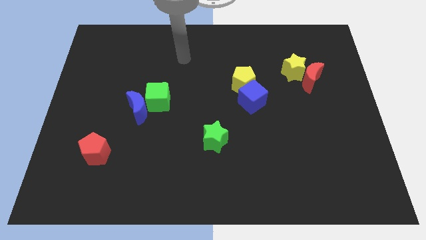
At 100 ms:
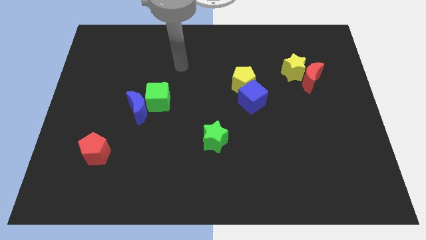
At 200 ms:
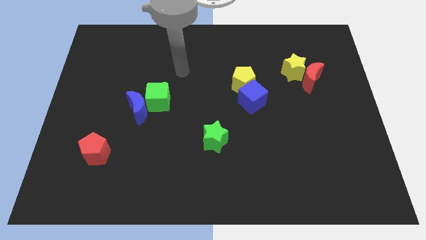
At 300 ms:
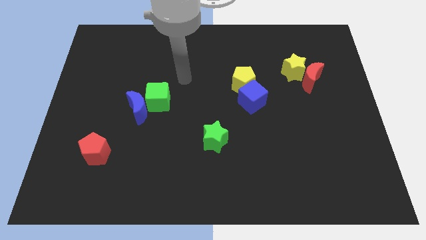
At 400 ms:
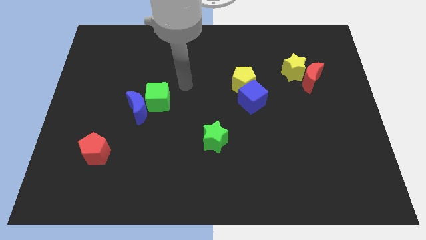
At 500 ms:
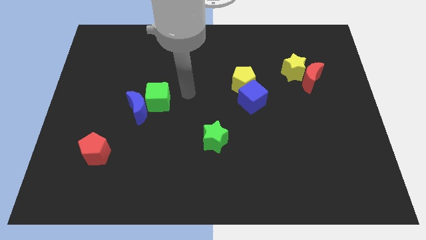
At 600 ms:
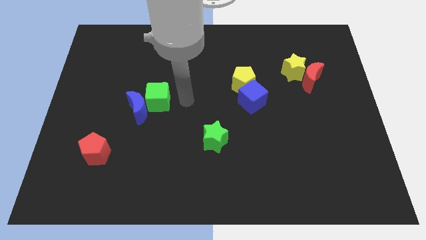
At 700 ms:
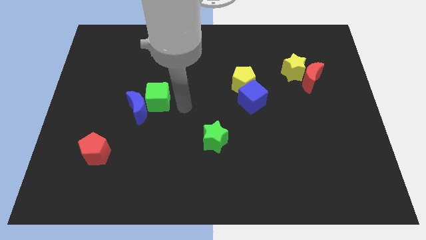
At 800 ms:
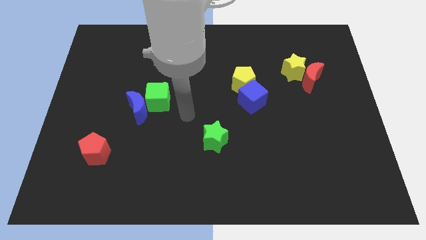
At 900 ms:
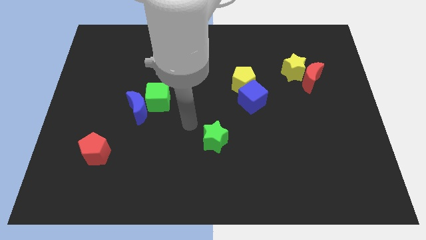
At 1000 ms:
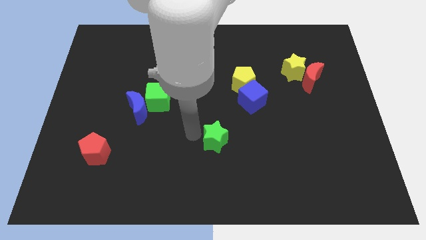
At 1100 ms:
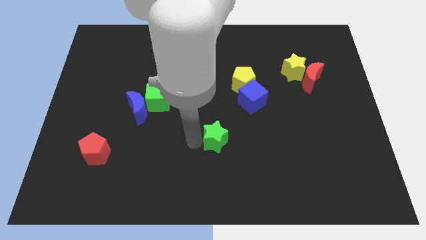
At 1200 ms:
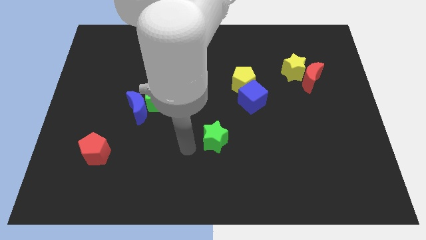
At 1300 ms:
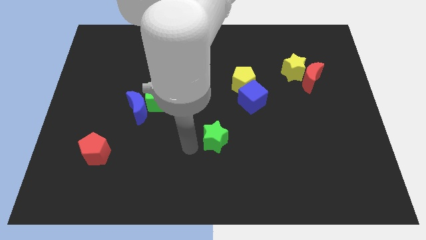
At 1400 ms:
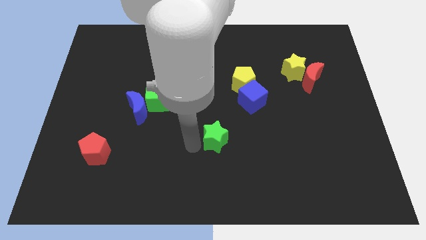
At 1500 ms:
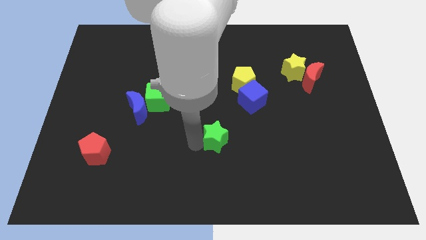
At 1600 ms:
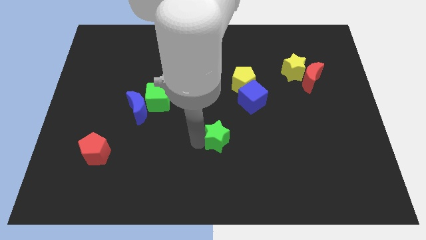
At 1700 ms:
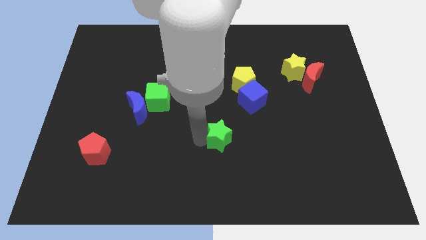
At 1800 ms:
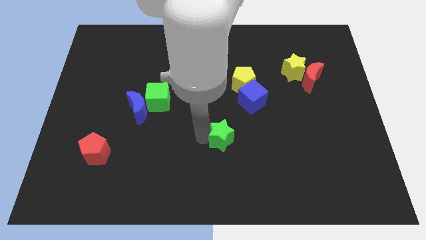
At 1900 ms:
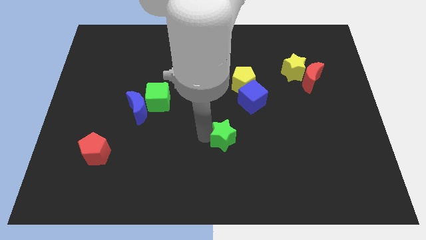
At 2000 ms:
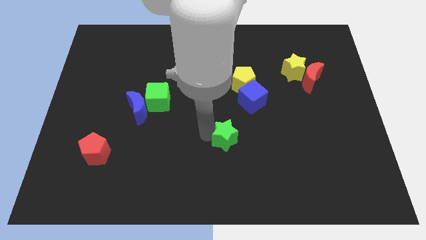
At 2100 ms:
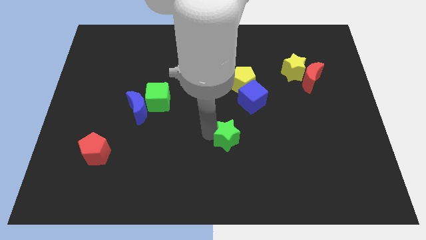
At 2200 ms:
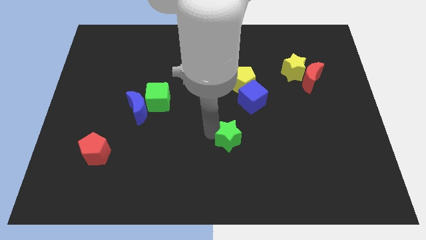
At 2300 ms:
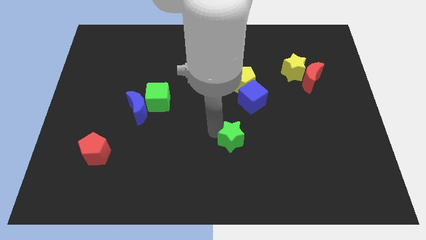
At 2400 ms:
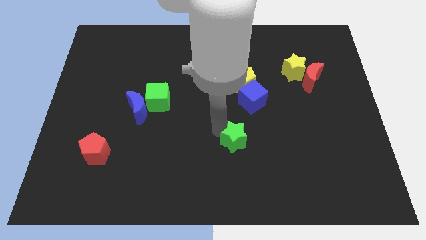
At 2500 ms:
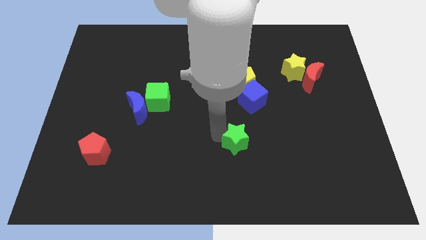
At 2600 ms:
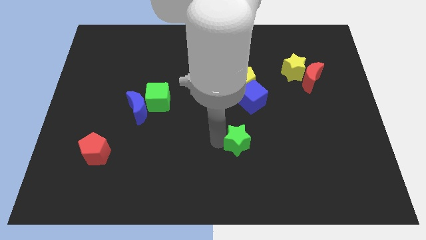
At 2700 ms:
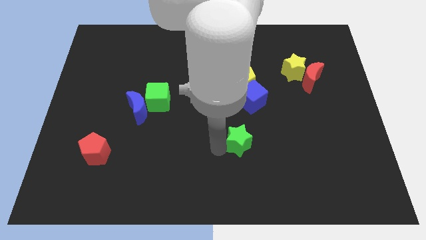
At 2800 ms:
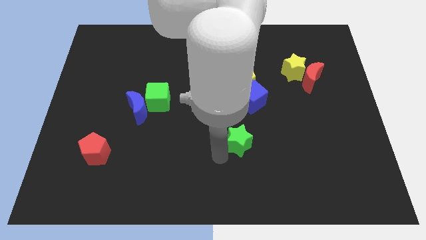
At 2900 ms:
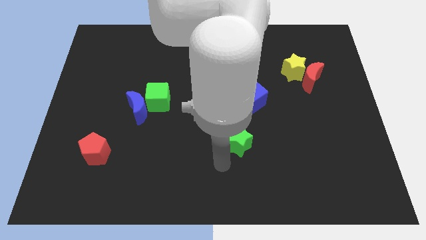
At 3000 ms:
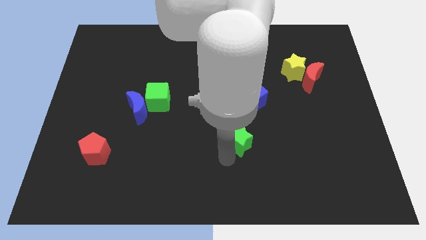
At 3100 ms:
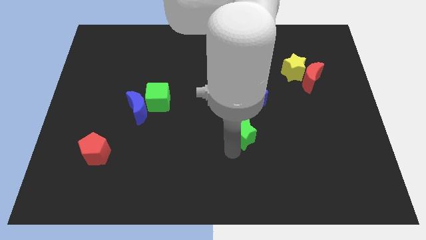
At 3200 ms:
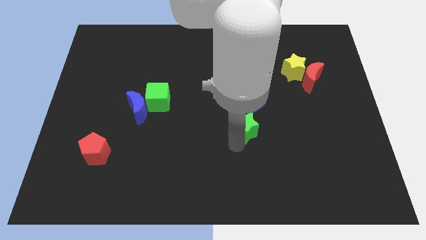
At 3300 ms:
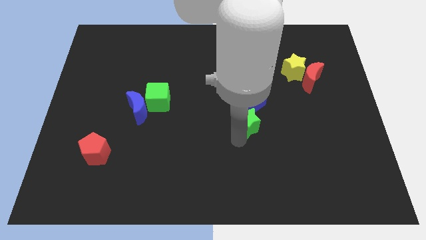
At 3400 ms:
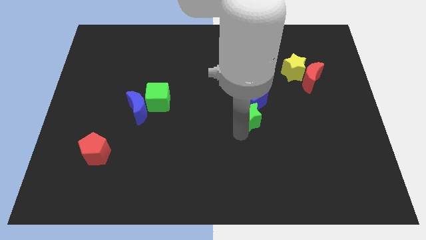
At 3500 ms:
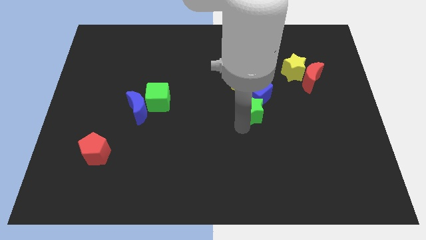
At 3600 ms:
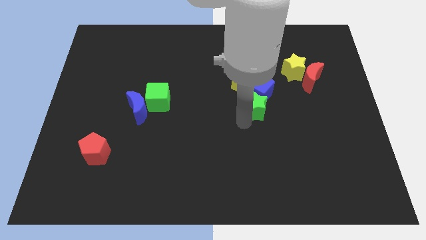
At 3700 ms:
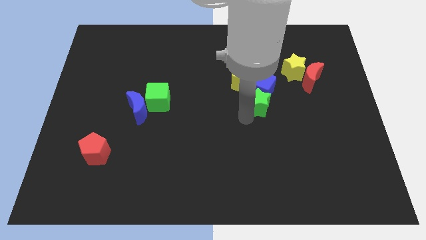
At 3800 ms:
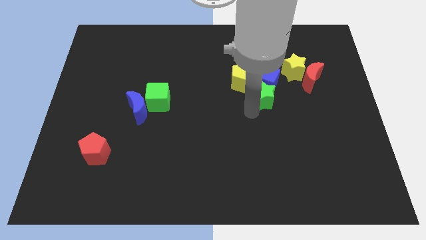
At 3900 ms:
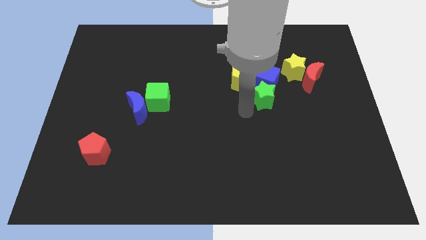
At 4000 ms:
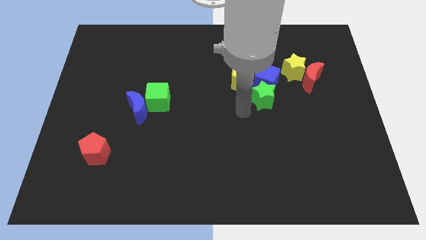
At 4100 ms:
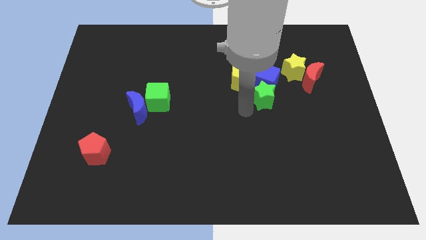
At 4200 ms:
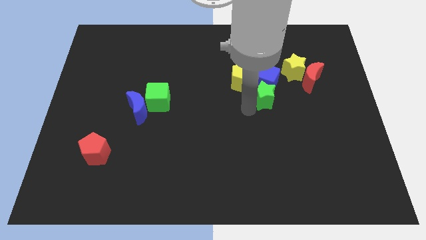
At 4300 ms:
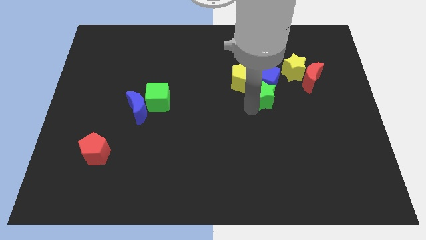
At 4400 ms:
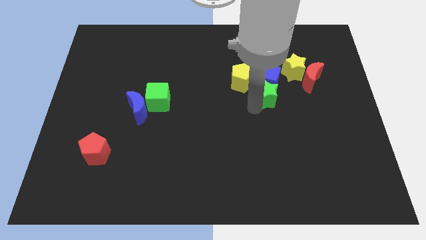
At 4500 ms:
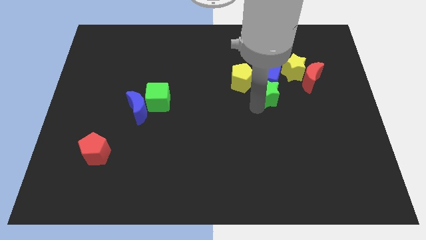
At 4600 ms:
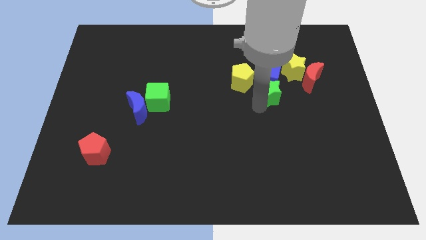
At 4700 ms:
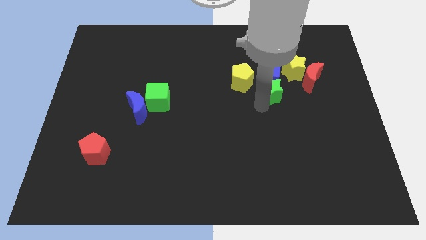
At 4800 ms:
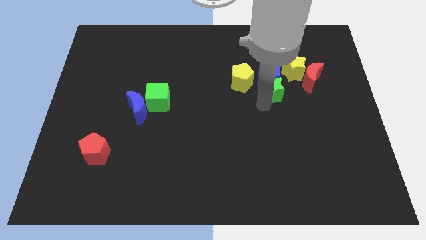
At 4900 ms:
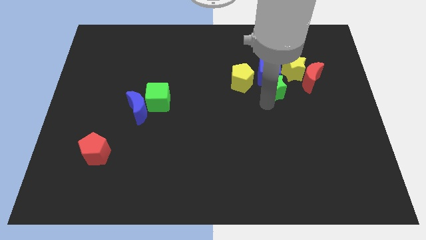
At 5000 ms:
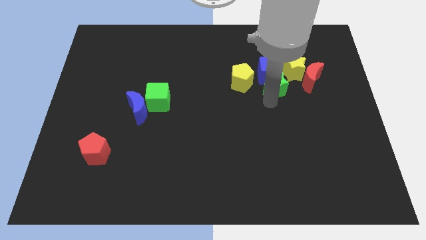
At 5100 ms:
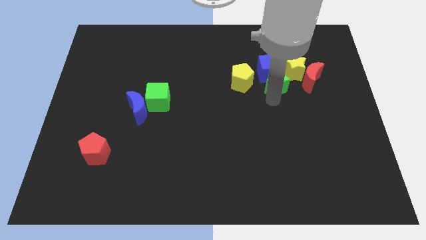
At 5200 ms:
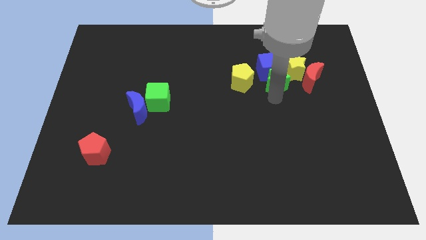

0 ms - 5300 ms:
move the green star towards the yellow star

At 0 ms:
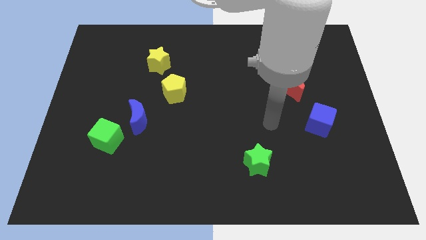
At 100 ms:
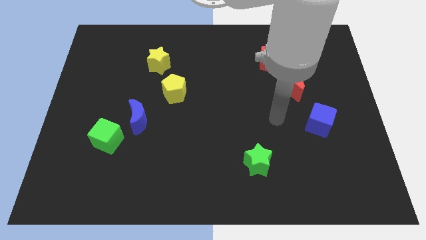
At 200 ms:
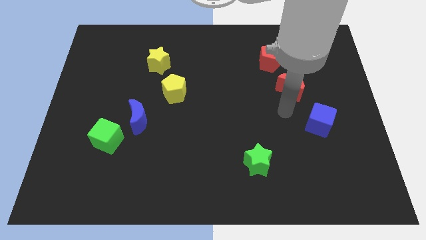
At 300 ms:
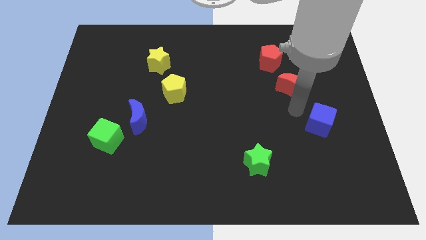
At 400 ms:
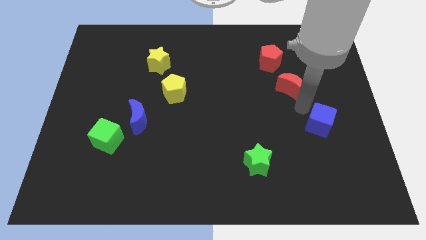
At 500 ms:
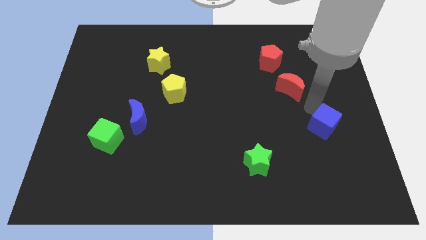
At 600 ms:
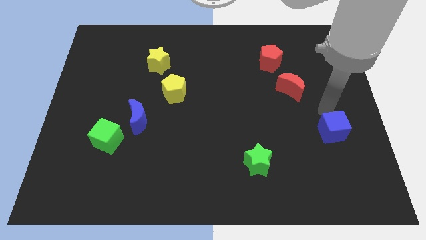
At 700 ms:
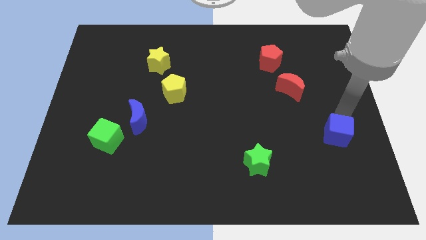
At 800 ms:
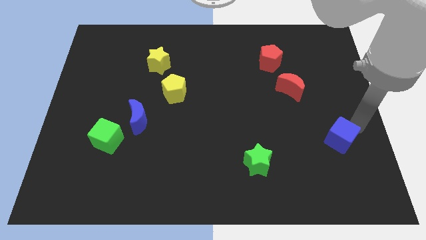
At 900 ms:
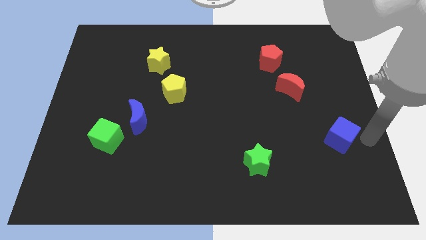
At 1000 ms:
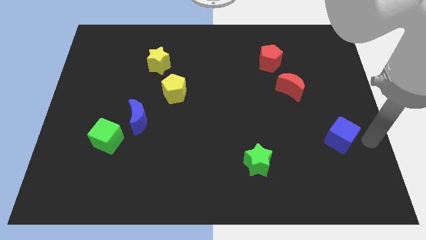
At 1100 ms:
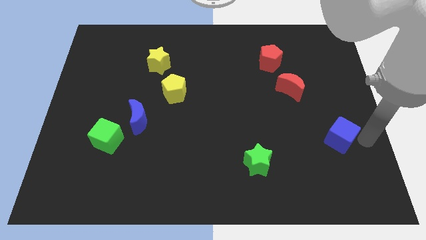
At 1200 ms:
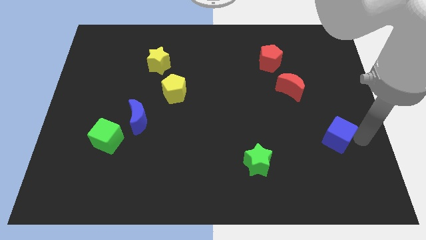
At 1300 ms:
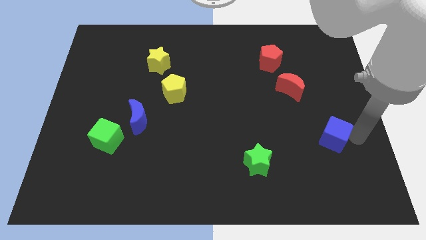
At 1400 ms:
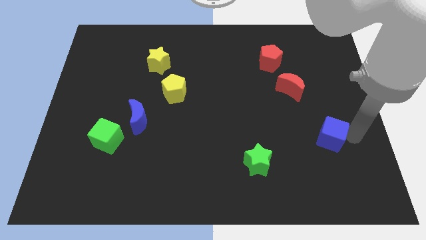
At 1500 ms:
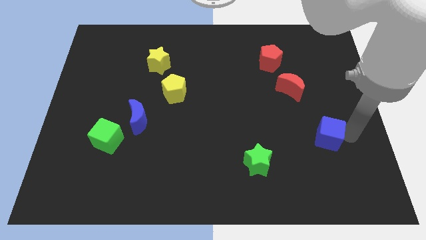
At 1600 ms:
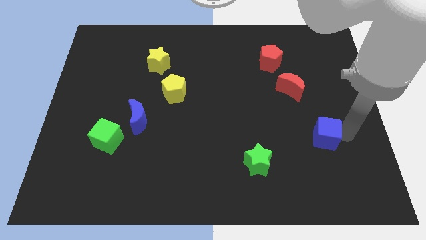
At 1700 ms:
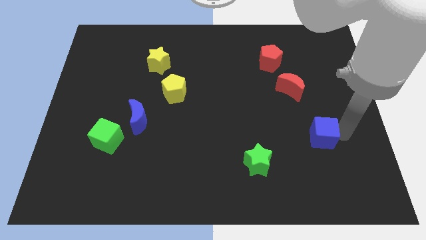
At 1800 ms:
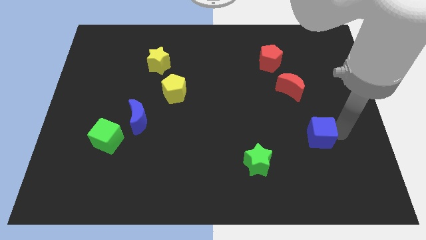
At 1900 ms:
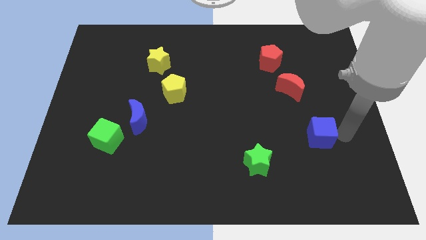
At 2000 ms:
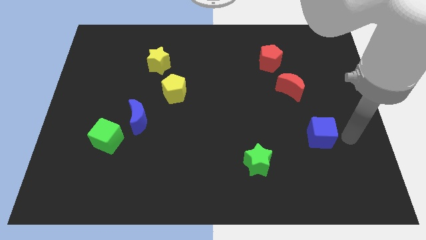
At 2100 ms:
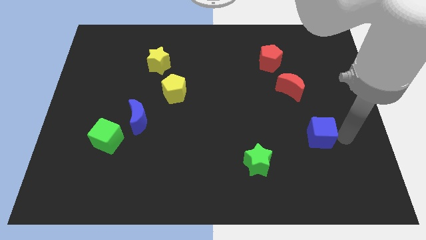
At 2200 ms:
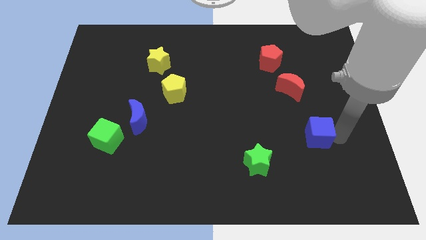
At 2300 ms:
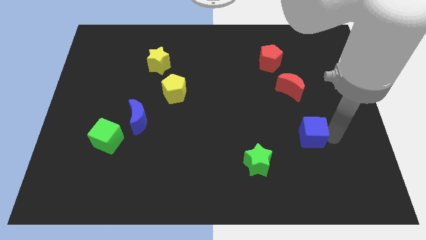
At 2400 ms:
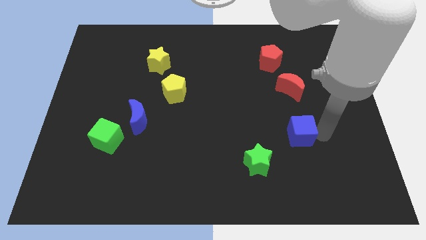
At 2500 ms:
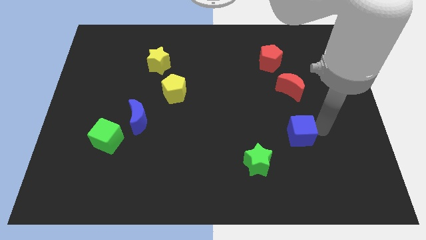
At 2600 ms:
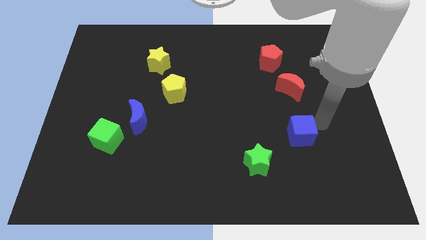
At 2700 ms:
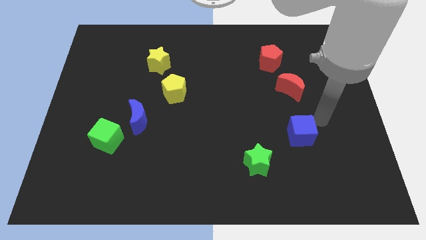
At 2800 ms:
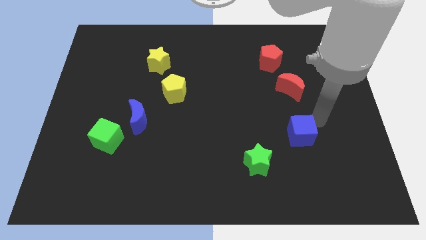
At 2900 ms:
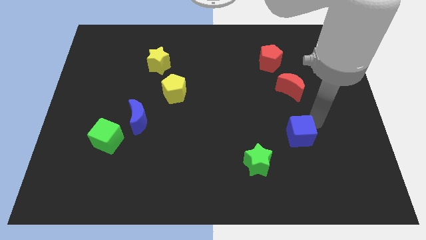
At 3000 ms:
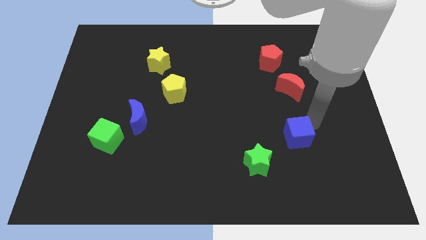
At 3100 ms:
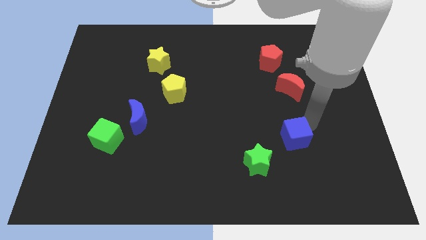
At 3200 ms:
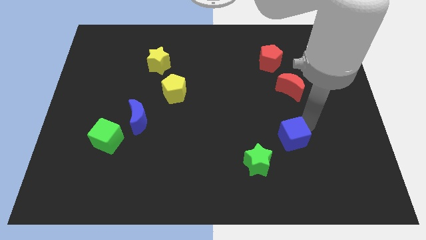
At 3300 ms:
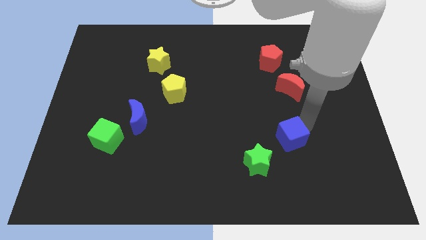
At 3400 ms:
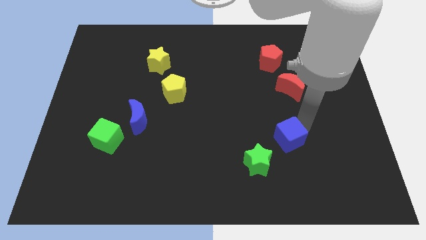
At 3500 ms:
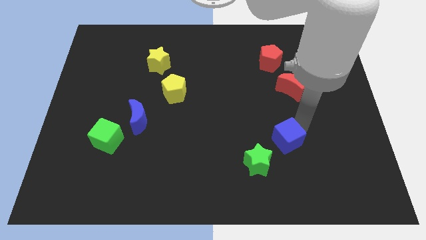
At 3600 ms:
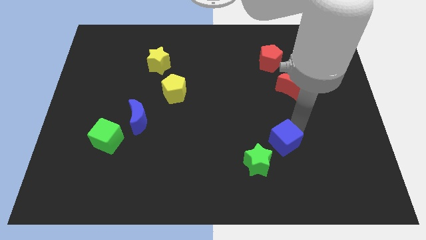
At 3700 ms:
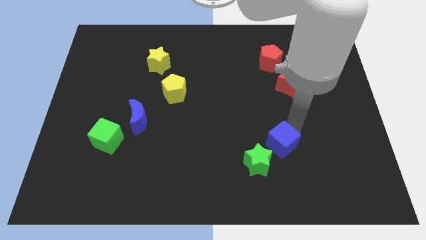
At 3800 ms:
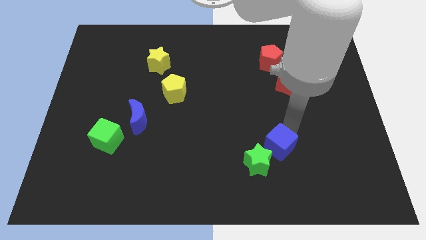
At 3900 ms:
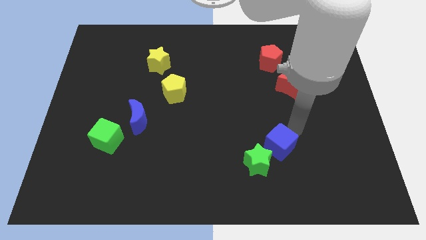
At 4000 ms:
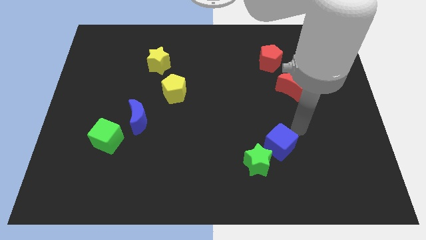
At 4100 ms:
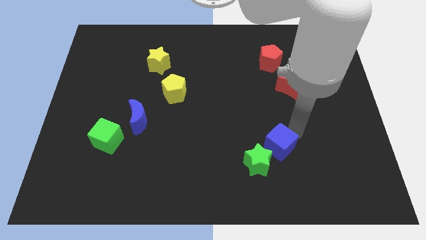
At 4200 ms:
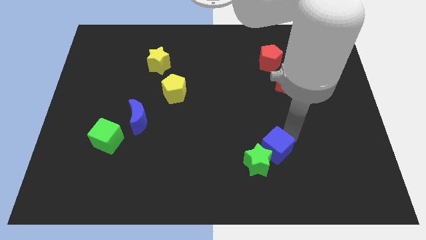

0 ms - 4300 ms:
move the blue cube close to the green star
